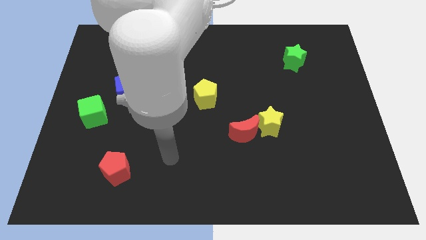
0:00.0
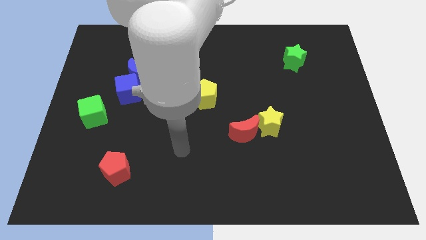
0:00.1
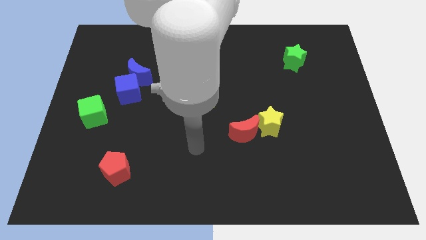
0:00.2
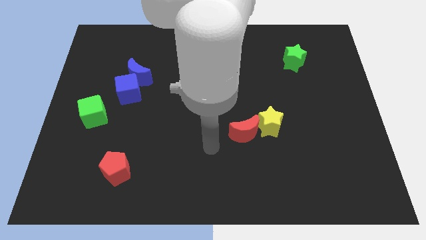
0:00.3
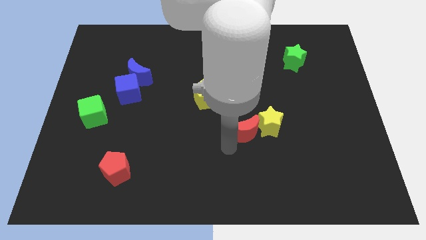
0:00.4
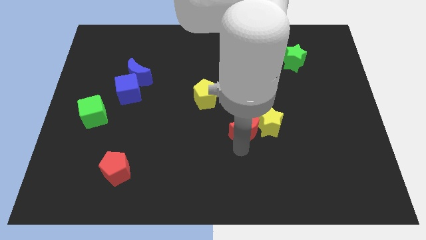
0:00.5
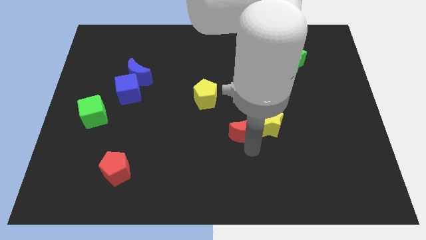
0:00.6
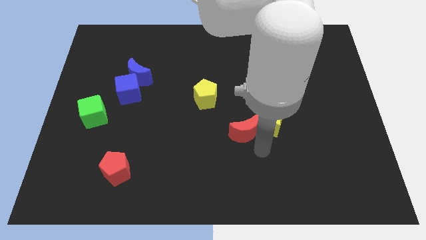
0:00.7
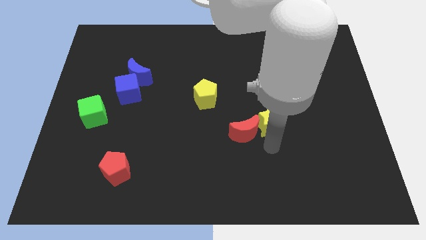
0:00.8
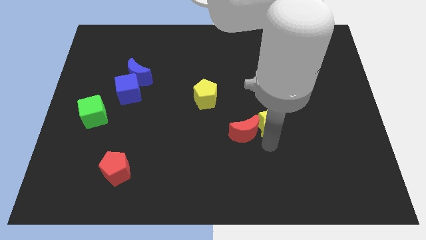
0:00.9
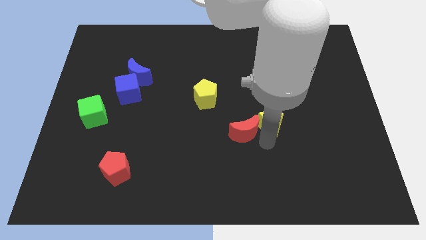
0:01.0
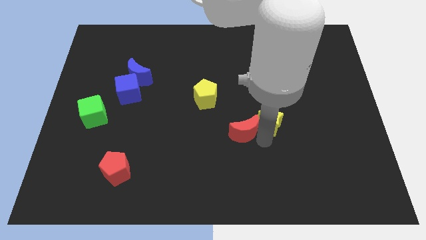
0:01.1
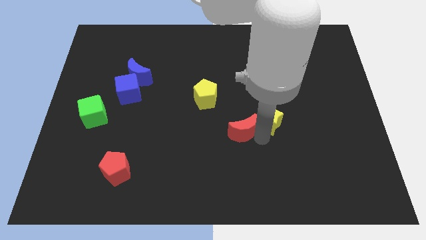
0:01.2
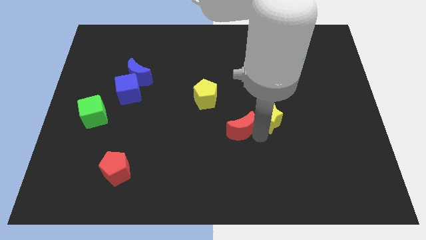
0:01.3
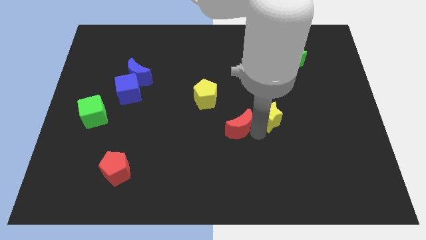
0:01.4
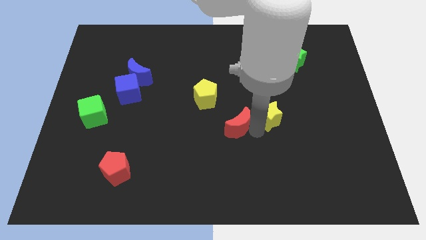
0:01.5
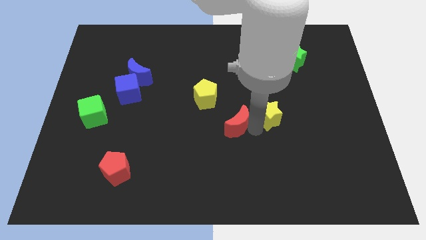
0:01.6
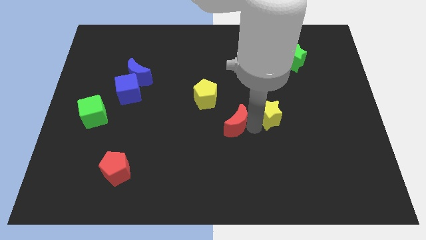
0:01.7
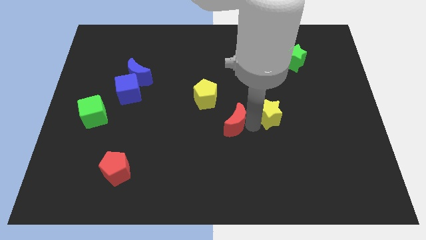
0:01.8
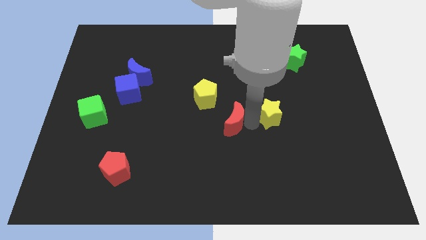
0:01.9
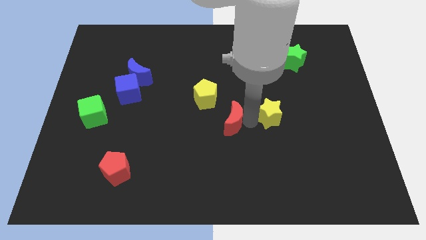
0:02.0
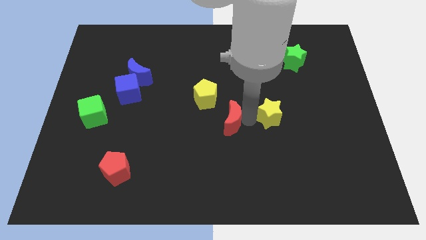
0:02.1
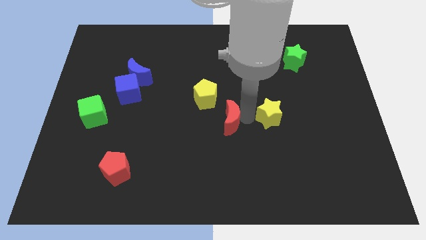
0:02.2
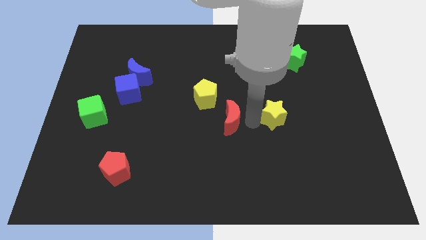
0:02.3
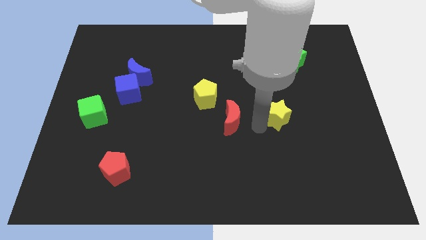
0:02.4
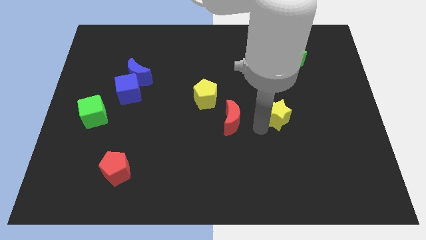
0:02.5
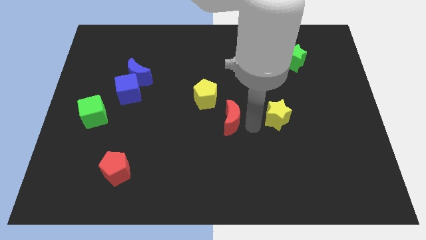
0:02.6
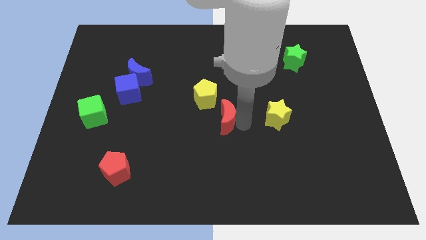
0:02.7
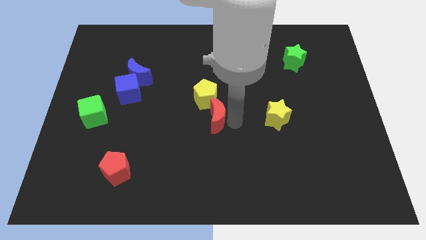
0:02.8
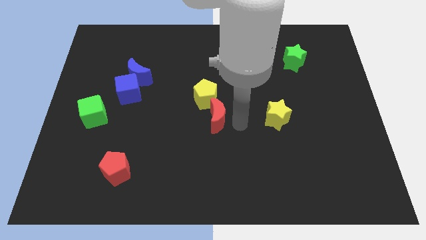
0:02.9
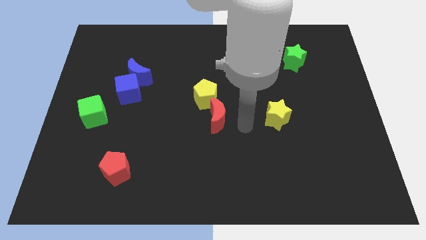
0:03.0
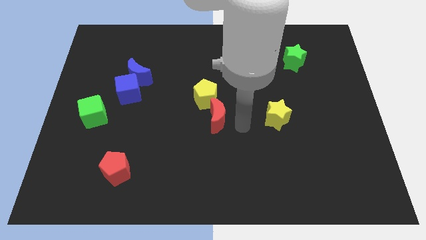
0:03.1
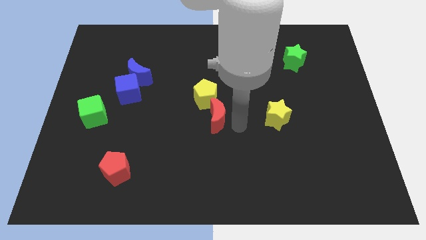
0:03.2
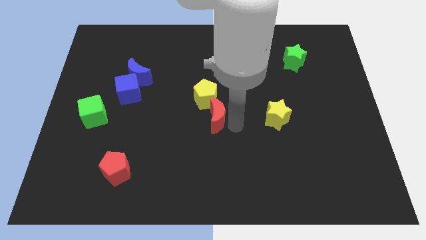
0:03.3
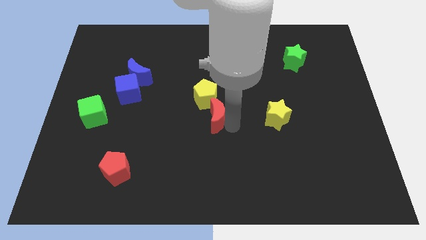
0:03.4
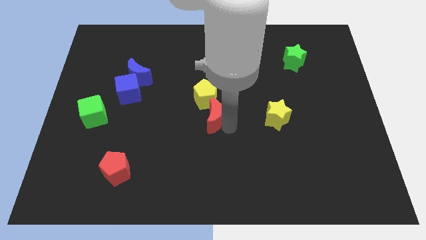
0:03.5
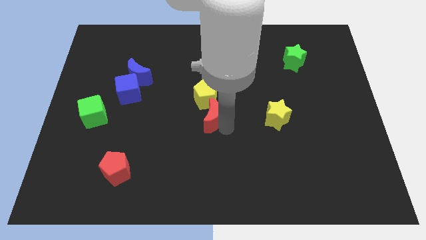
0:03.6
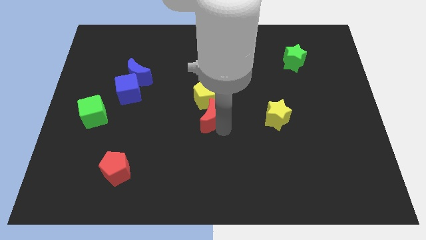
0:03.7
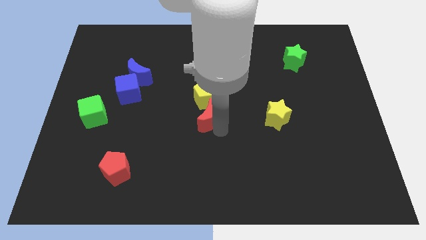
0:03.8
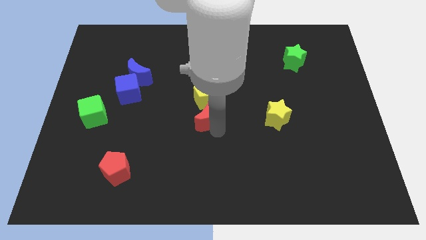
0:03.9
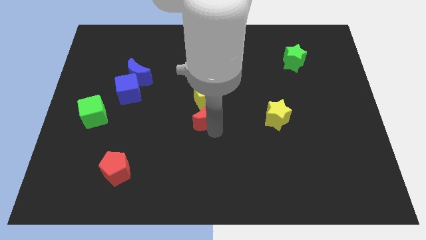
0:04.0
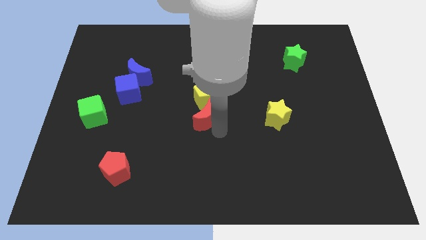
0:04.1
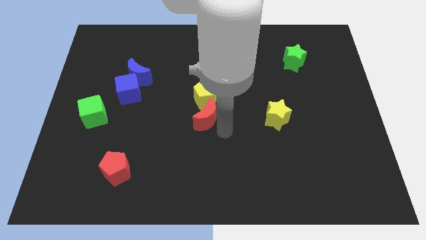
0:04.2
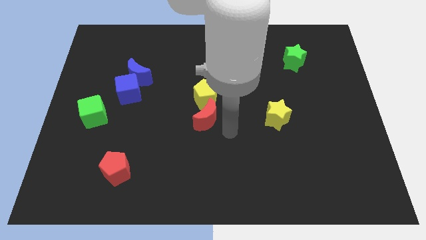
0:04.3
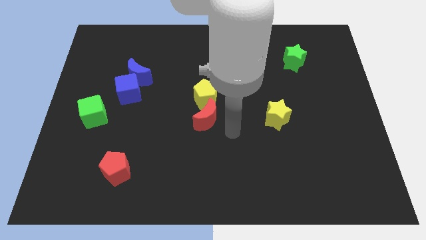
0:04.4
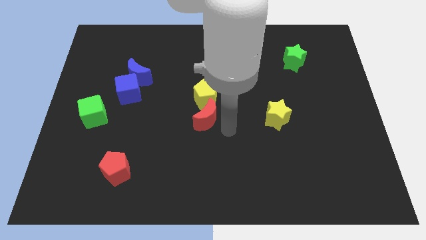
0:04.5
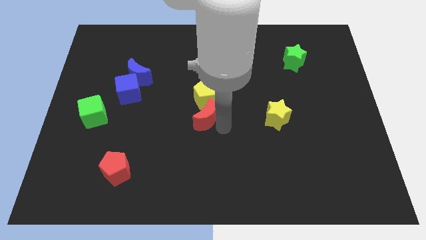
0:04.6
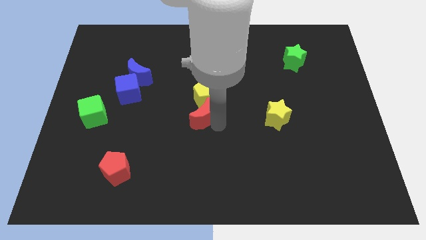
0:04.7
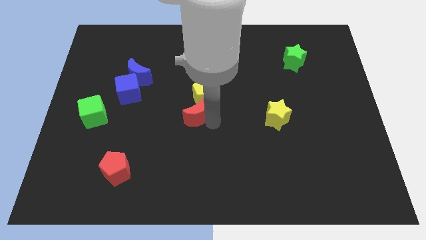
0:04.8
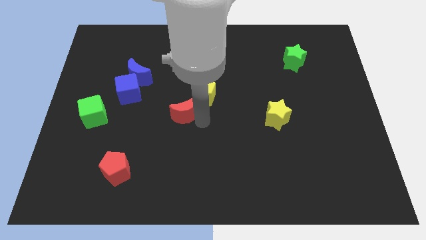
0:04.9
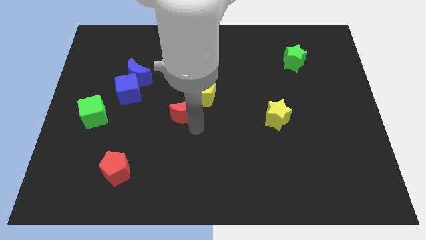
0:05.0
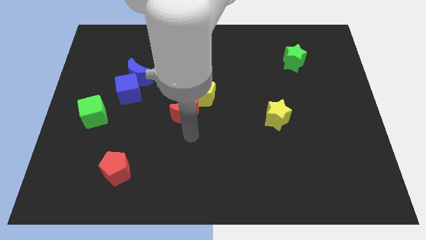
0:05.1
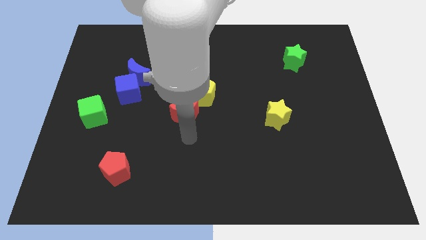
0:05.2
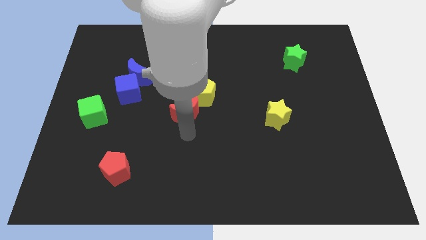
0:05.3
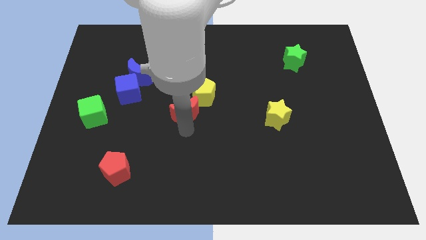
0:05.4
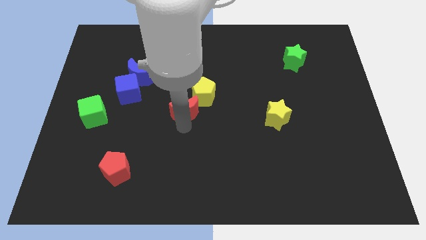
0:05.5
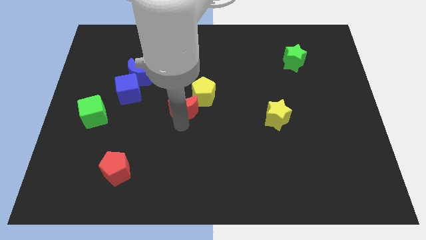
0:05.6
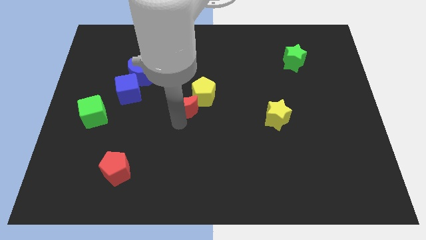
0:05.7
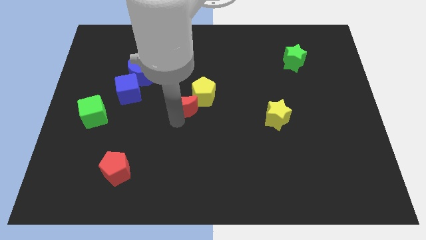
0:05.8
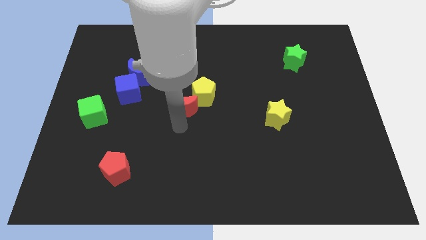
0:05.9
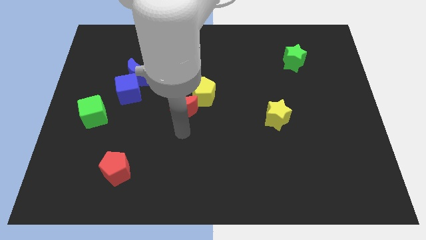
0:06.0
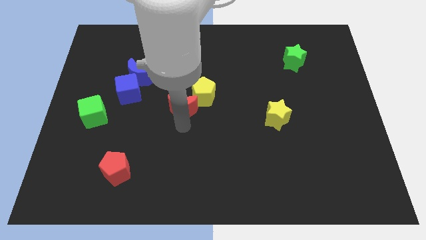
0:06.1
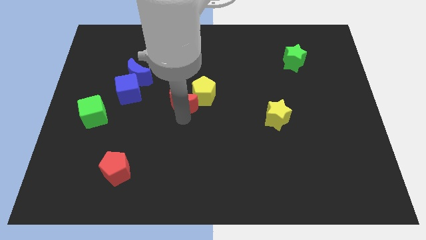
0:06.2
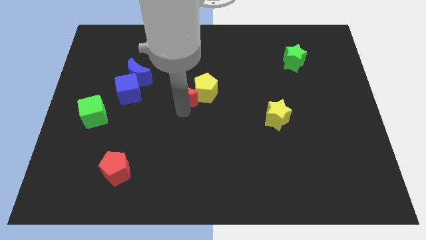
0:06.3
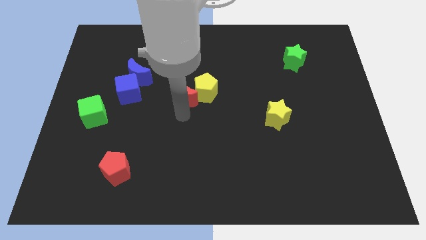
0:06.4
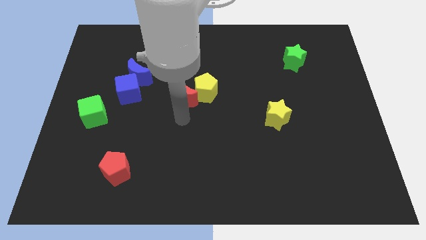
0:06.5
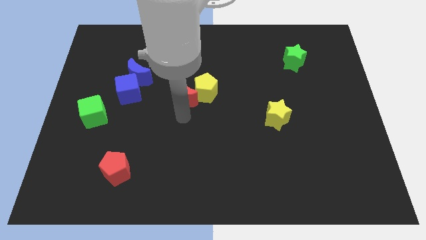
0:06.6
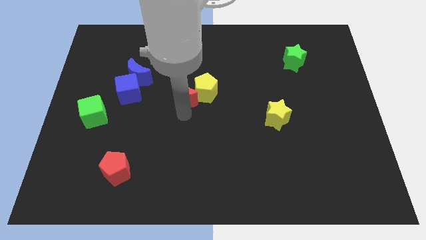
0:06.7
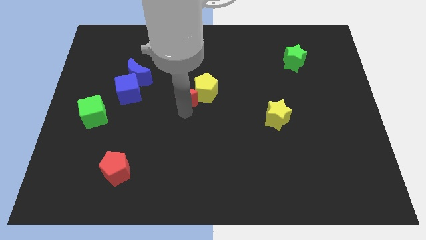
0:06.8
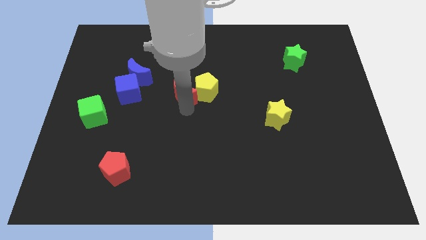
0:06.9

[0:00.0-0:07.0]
put the red moon to the top left side of the yellow pentagon

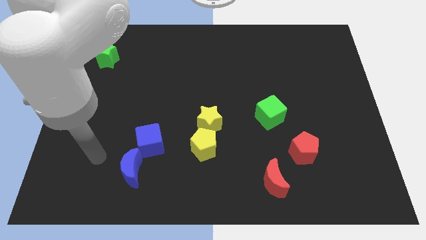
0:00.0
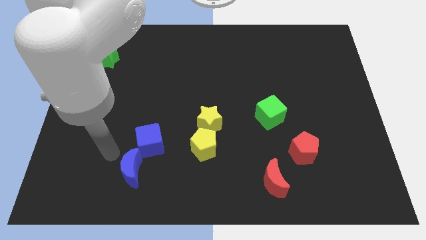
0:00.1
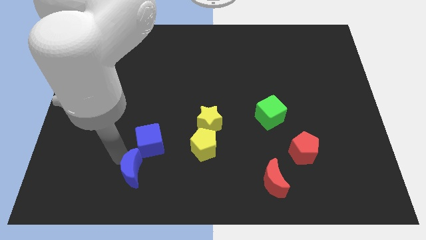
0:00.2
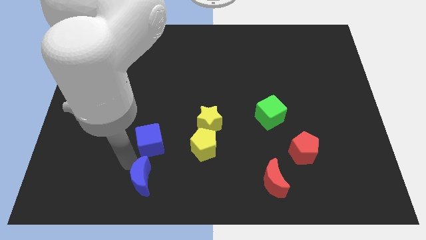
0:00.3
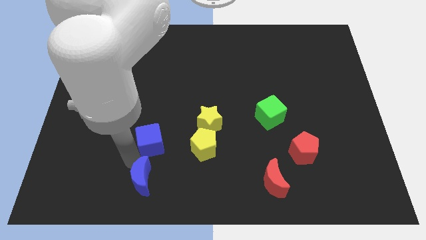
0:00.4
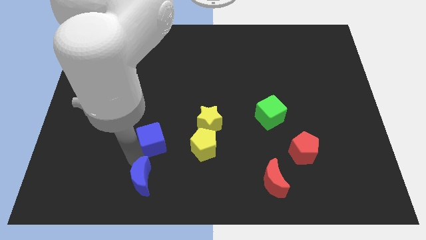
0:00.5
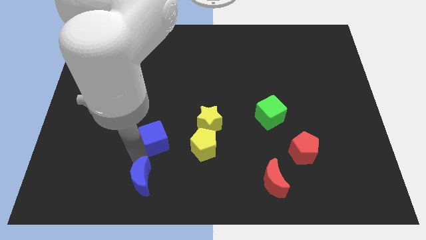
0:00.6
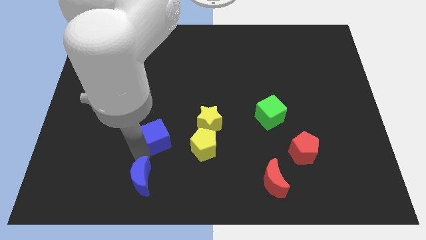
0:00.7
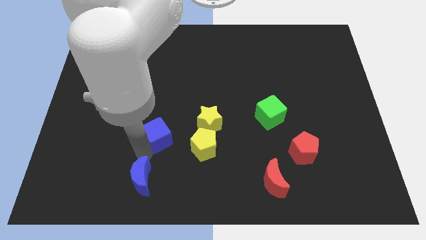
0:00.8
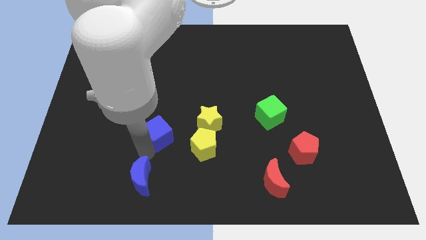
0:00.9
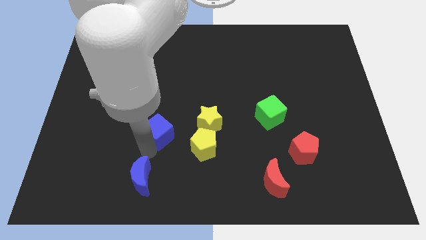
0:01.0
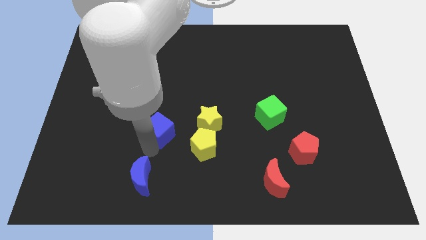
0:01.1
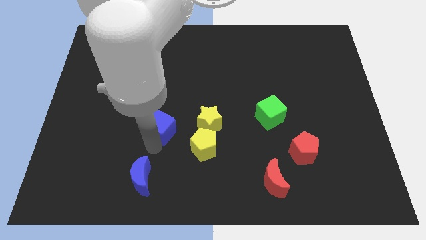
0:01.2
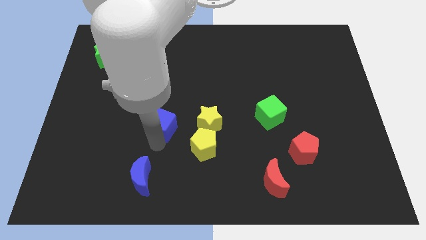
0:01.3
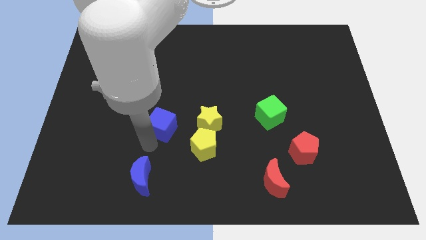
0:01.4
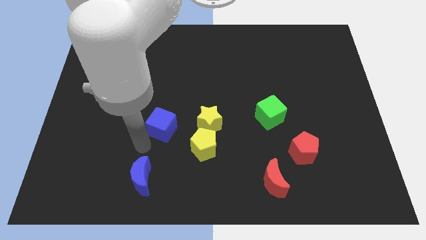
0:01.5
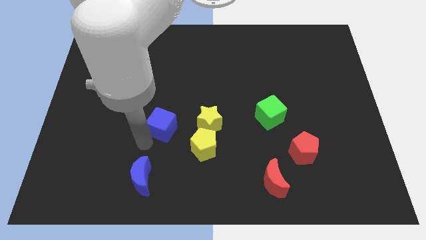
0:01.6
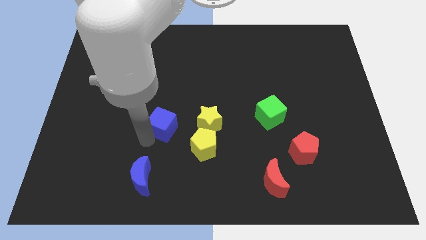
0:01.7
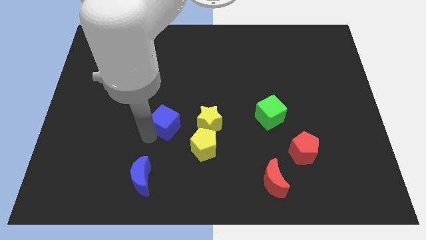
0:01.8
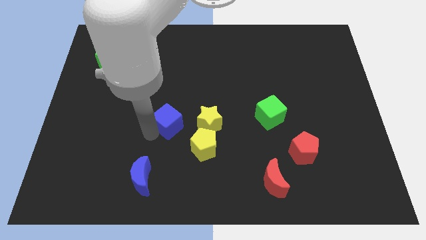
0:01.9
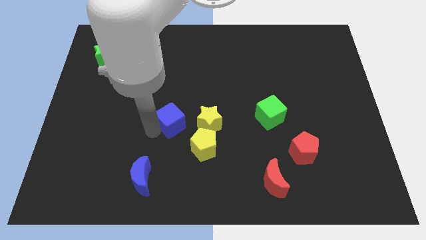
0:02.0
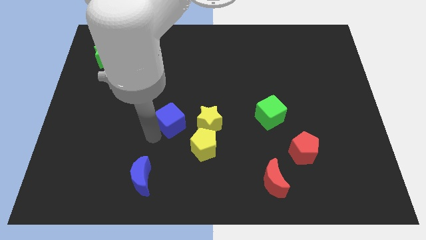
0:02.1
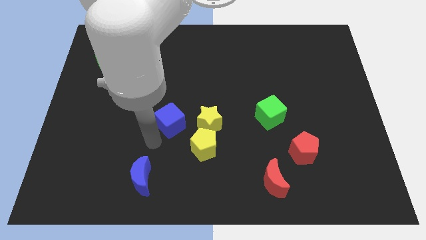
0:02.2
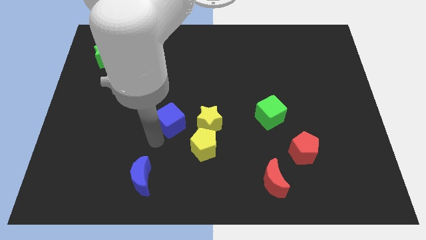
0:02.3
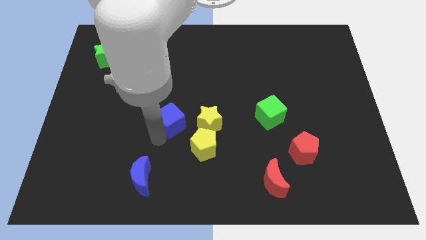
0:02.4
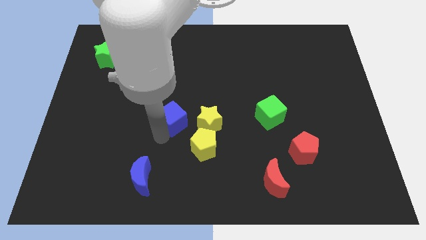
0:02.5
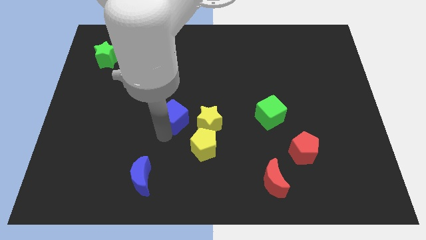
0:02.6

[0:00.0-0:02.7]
move the blue cube diagonally up and to the left of the yellow star
